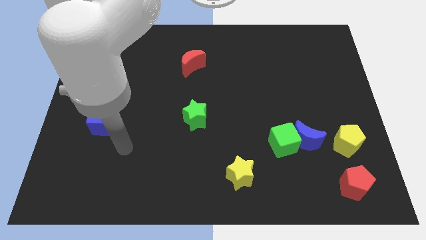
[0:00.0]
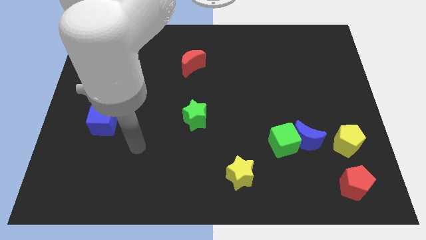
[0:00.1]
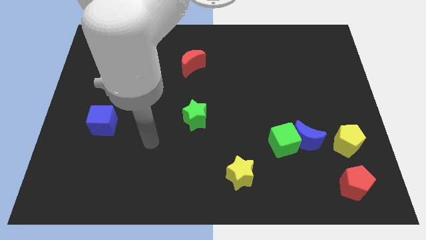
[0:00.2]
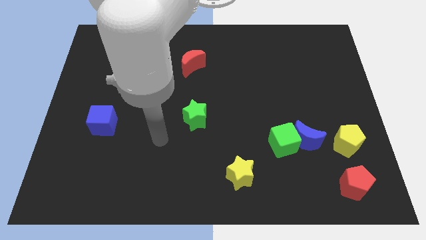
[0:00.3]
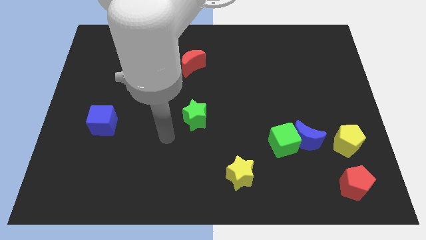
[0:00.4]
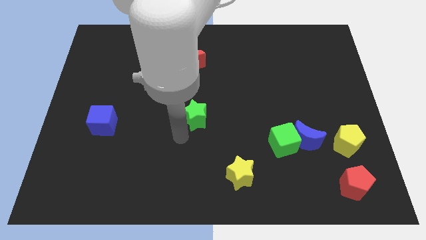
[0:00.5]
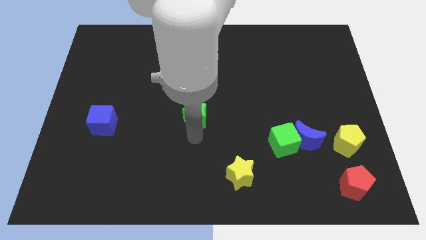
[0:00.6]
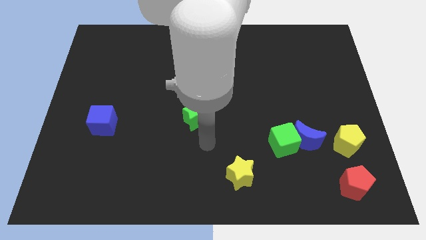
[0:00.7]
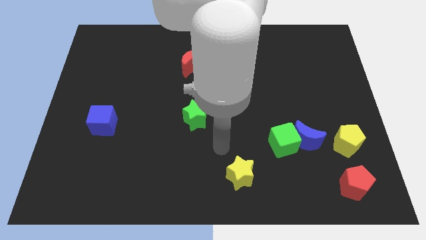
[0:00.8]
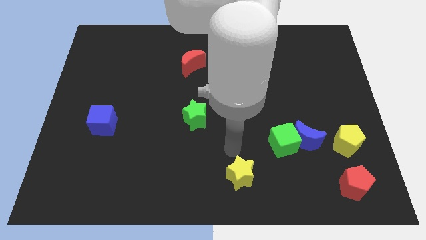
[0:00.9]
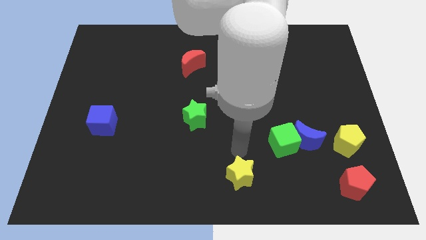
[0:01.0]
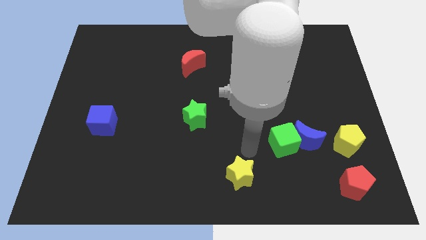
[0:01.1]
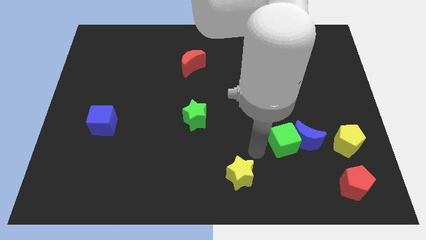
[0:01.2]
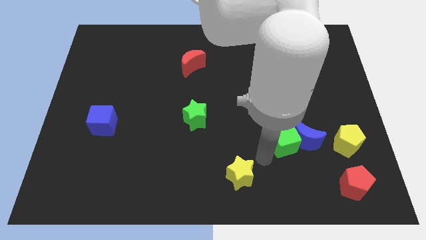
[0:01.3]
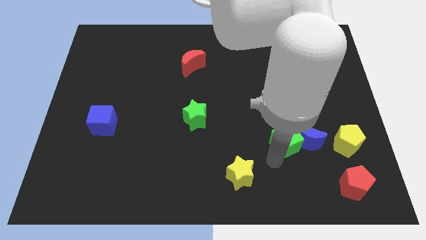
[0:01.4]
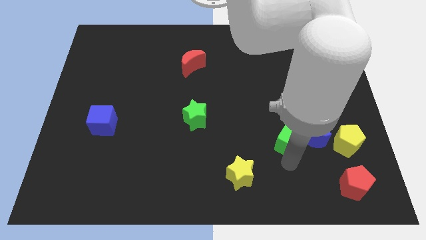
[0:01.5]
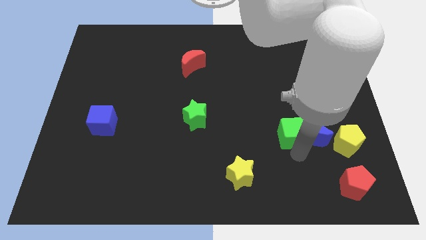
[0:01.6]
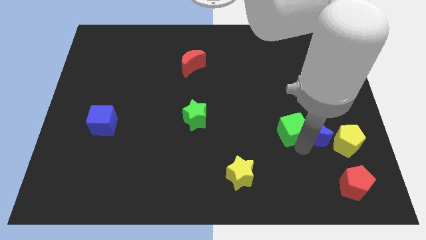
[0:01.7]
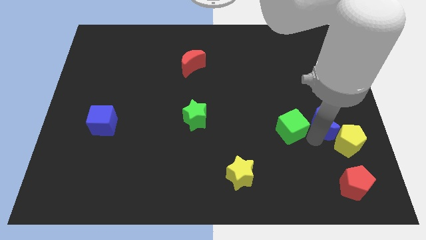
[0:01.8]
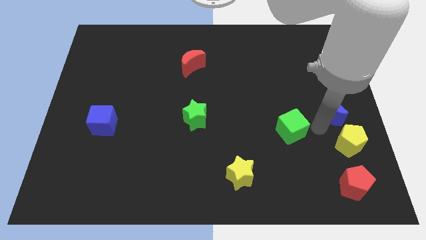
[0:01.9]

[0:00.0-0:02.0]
pull the green cube apart from the blue moon

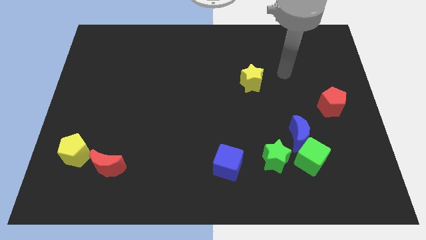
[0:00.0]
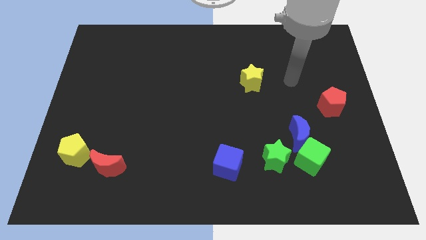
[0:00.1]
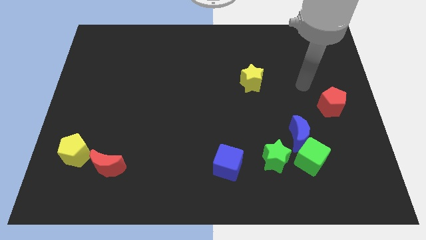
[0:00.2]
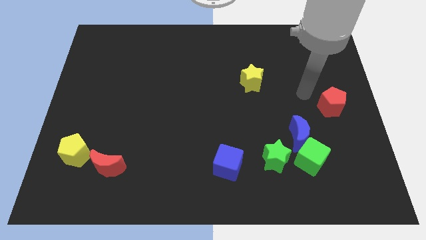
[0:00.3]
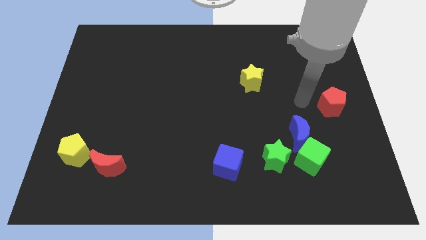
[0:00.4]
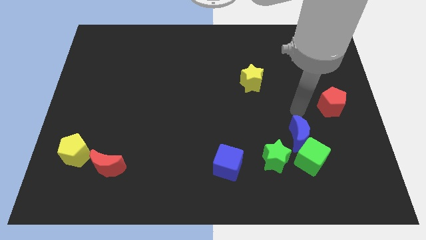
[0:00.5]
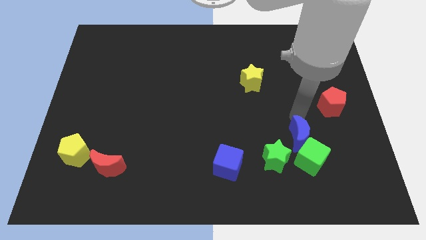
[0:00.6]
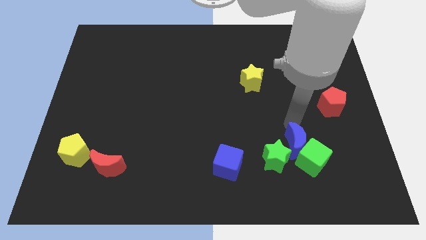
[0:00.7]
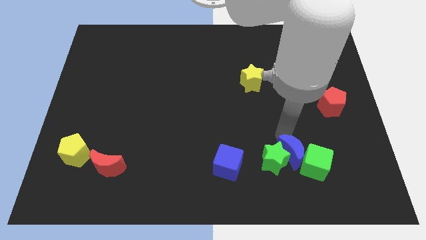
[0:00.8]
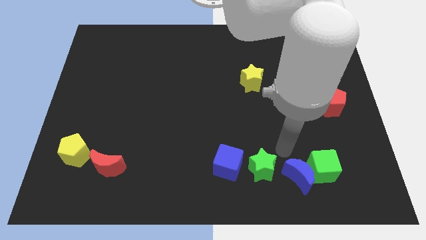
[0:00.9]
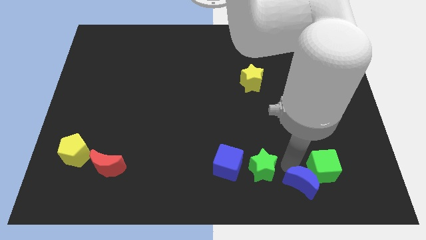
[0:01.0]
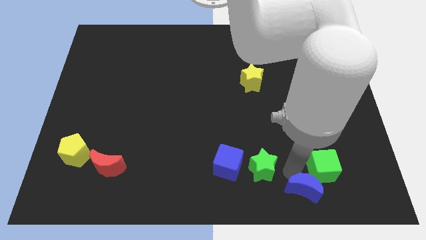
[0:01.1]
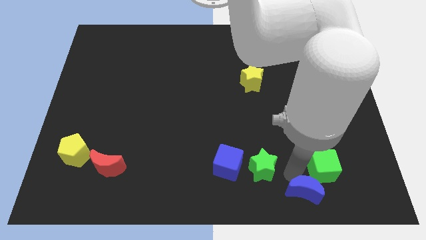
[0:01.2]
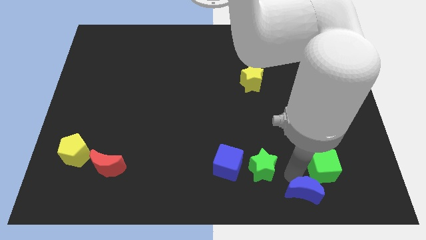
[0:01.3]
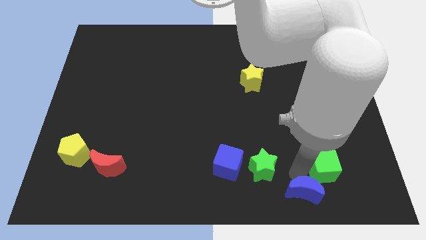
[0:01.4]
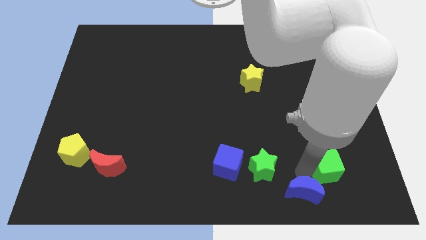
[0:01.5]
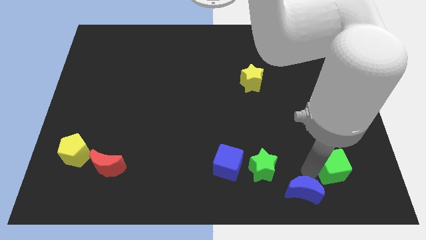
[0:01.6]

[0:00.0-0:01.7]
move the green cube away from the blue moon and green star

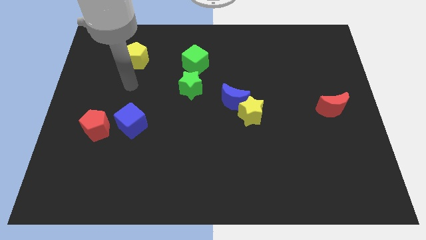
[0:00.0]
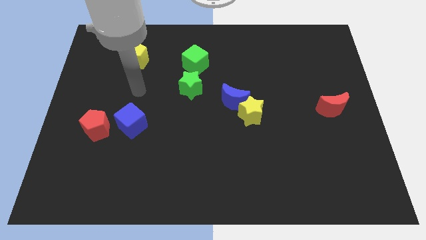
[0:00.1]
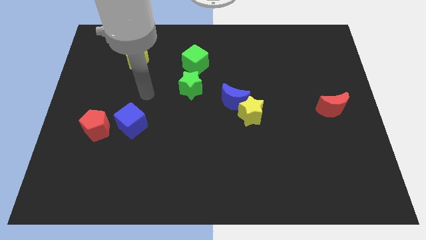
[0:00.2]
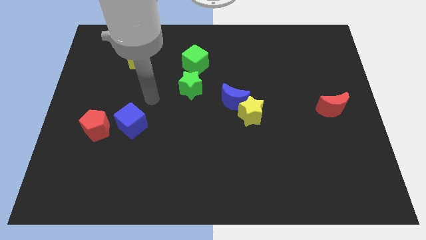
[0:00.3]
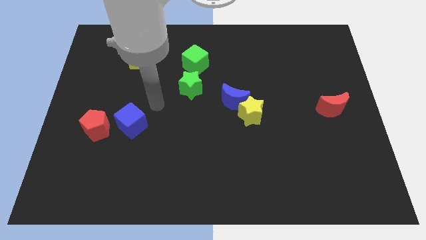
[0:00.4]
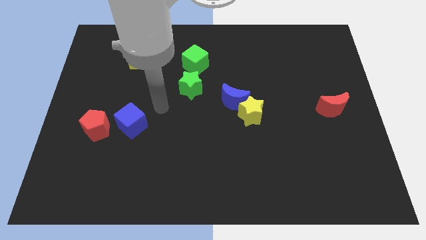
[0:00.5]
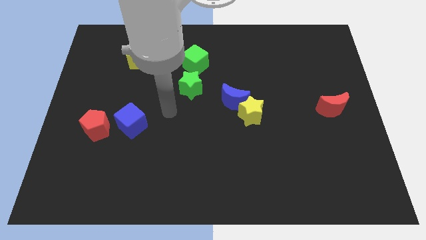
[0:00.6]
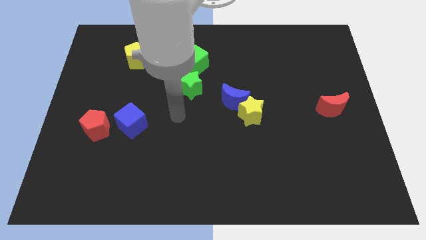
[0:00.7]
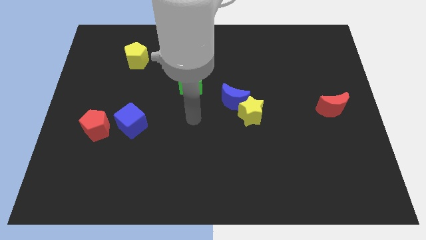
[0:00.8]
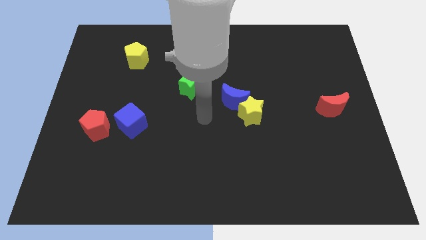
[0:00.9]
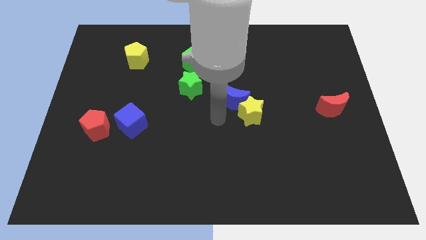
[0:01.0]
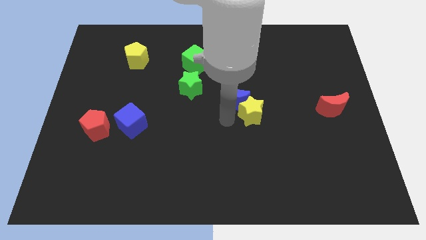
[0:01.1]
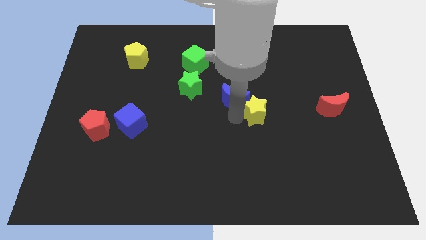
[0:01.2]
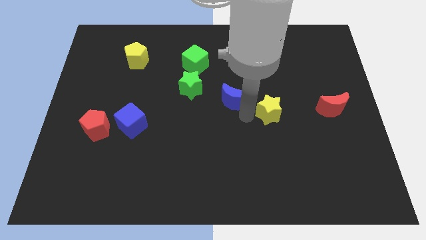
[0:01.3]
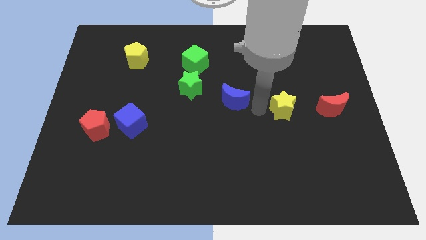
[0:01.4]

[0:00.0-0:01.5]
separate the blue moon from the yellow star

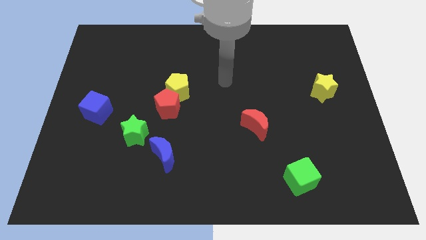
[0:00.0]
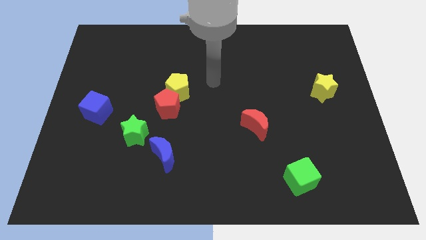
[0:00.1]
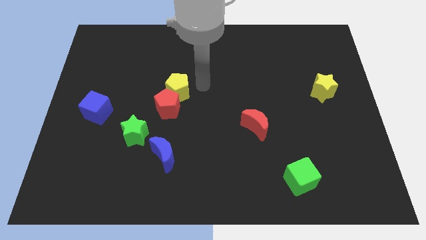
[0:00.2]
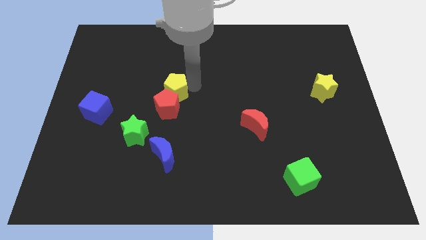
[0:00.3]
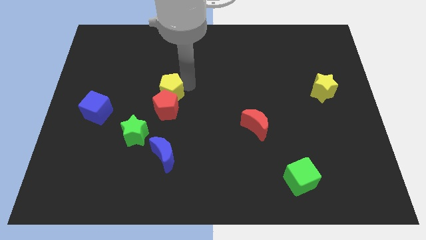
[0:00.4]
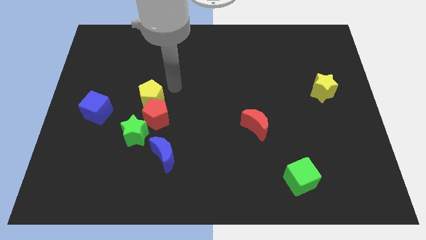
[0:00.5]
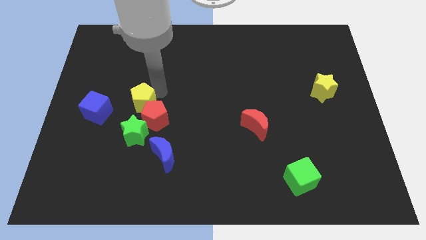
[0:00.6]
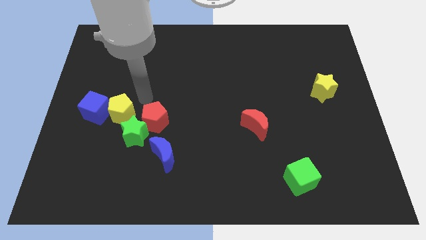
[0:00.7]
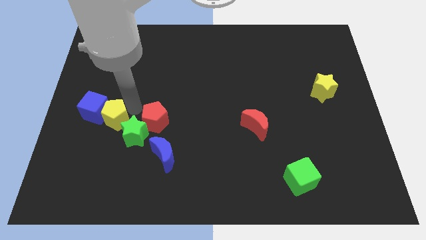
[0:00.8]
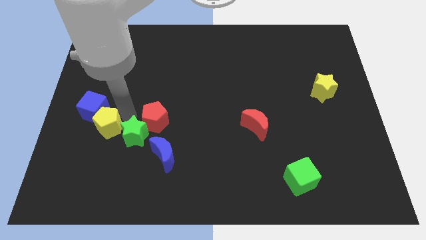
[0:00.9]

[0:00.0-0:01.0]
separate the red pentagon from the yellow pentagon

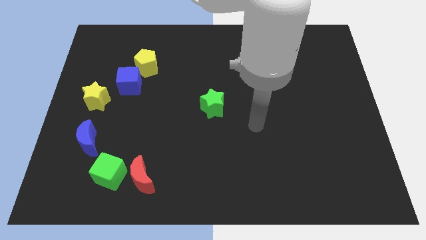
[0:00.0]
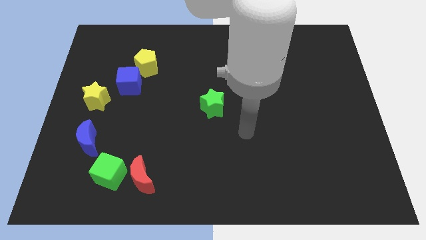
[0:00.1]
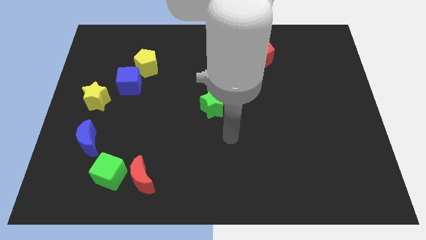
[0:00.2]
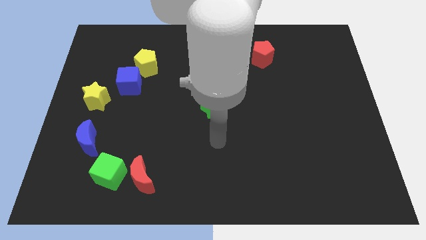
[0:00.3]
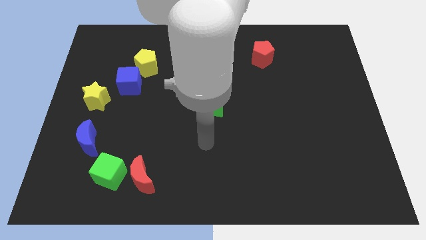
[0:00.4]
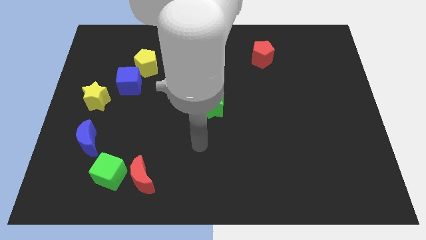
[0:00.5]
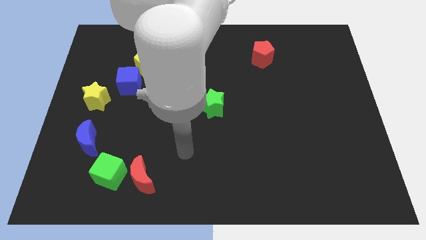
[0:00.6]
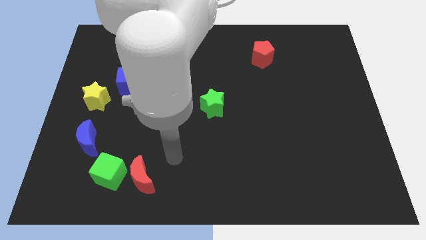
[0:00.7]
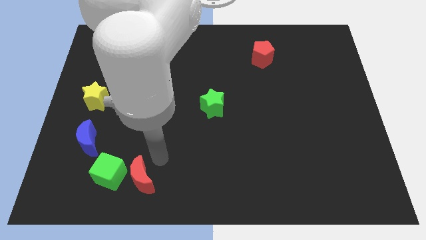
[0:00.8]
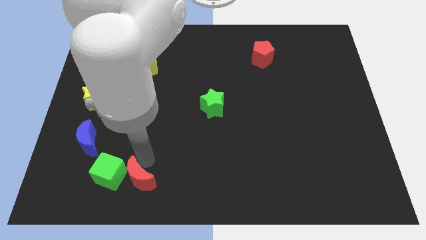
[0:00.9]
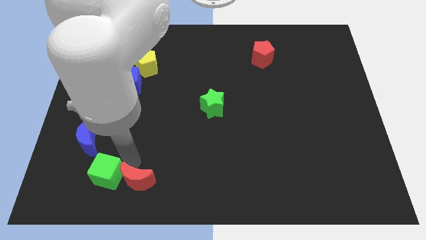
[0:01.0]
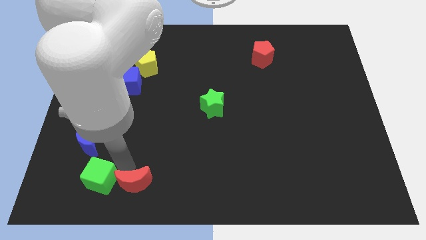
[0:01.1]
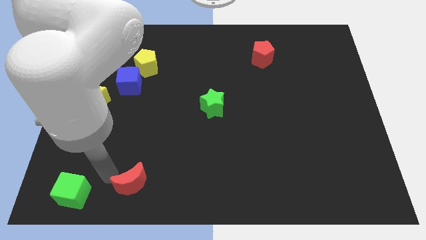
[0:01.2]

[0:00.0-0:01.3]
separate the red moon from the green cube

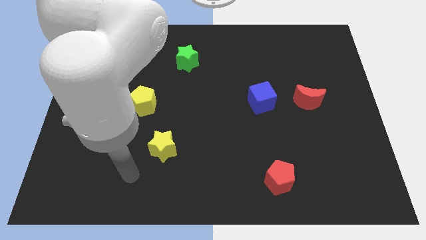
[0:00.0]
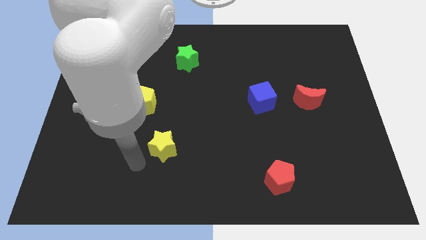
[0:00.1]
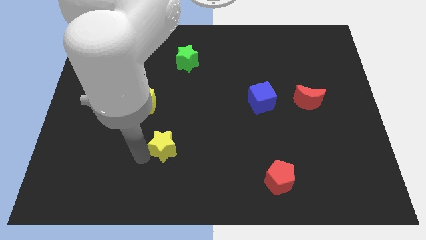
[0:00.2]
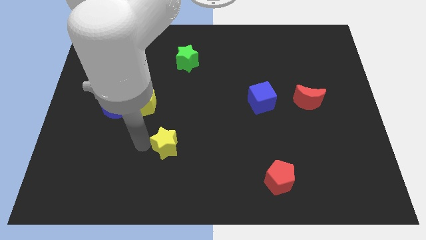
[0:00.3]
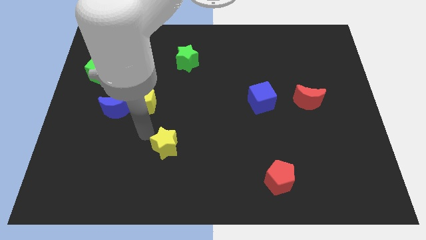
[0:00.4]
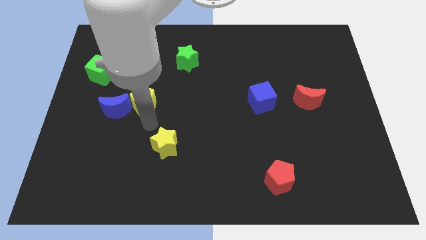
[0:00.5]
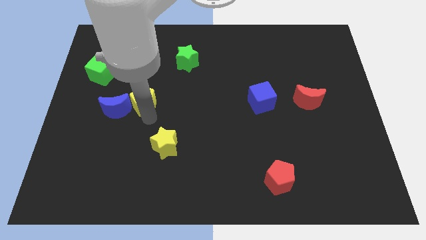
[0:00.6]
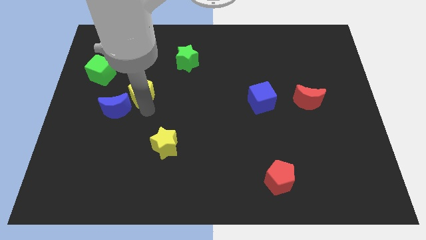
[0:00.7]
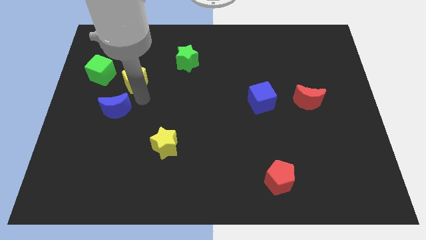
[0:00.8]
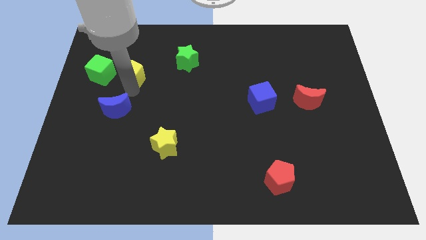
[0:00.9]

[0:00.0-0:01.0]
pull the blue moon apart from the yellow pentagon

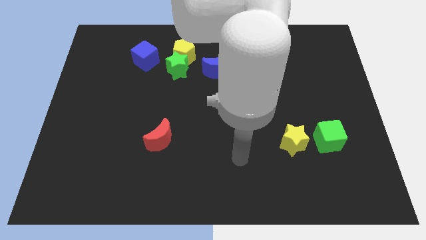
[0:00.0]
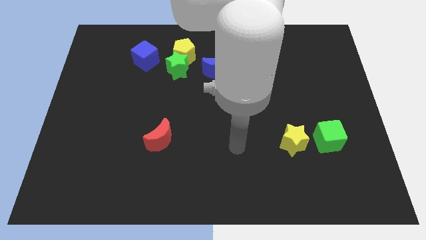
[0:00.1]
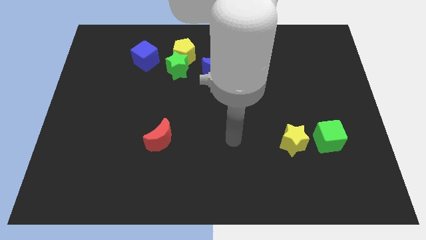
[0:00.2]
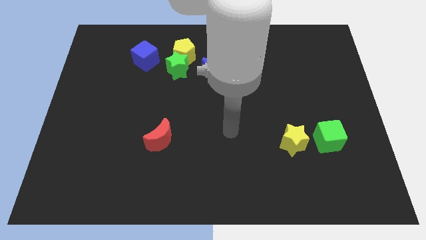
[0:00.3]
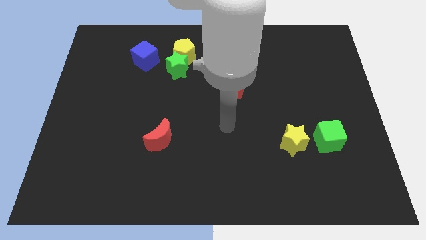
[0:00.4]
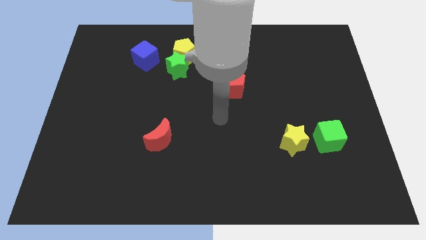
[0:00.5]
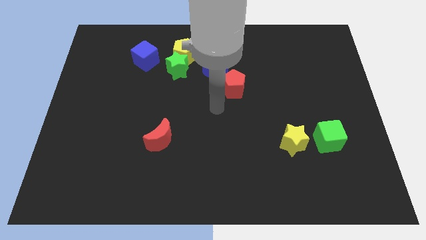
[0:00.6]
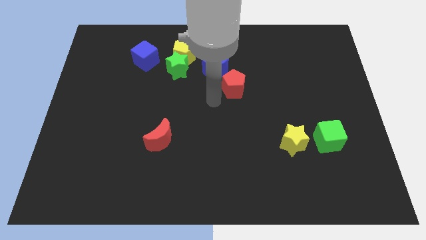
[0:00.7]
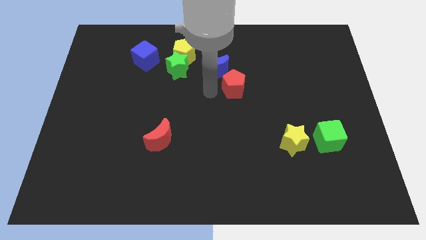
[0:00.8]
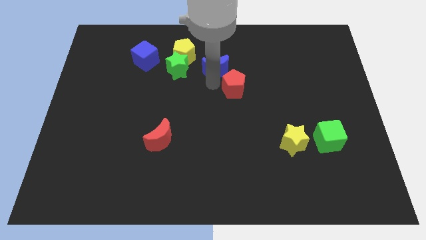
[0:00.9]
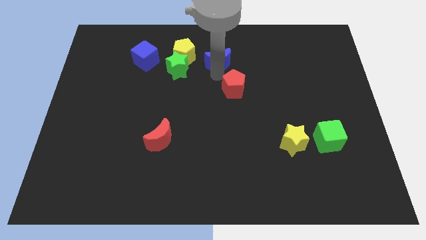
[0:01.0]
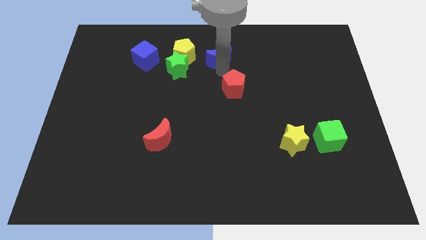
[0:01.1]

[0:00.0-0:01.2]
separate the red pentagon from the blue moon
